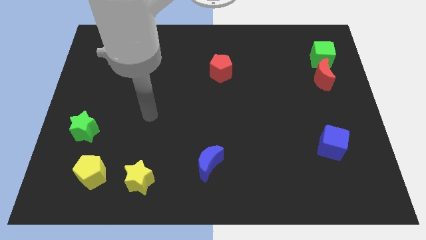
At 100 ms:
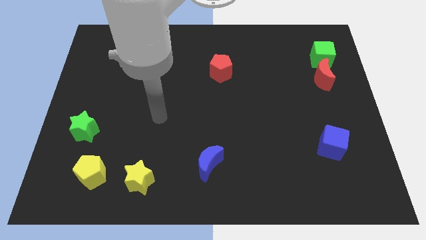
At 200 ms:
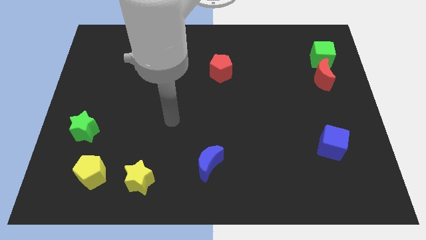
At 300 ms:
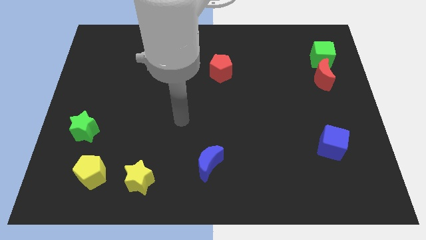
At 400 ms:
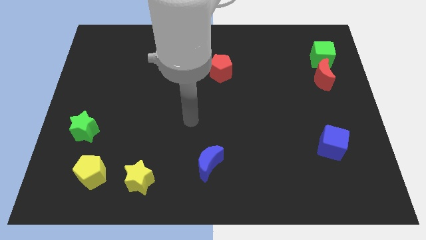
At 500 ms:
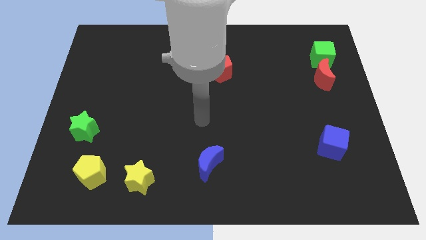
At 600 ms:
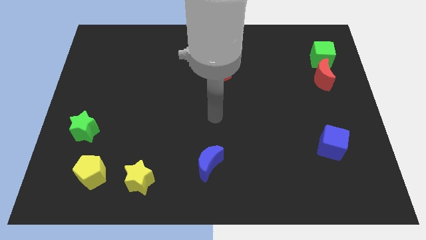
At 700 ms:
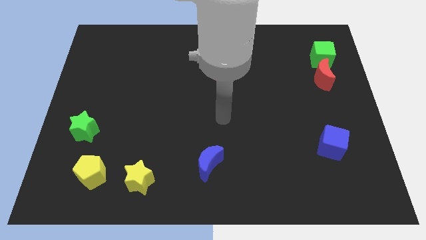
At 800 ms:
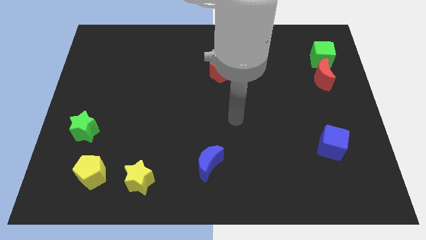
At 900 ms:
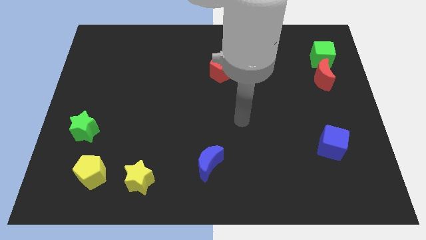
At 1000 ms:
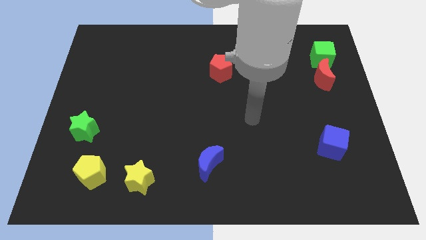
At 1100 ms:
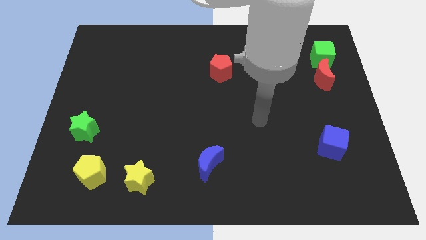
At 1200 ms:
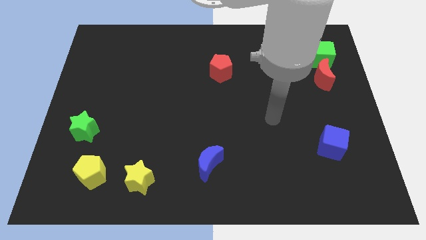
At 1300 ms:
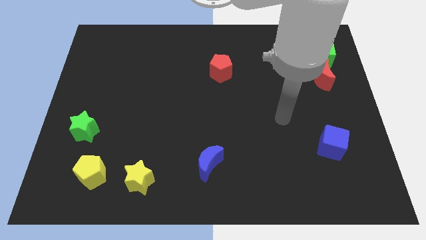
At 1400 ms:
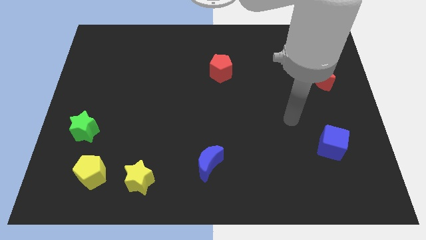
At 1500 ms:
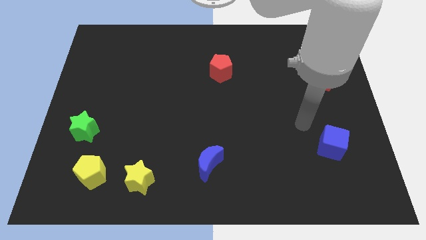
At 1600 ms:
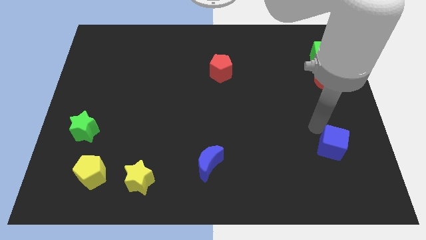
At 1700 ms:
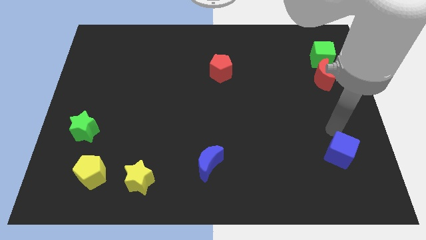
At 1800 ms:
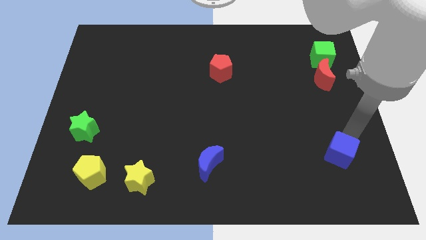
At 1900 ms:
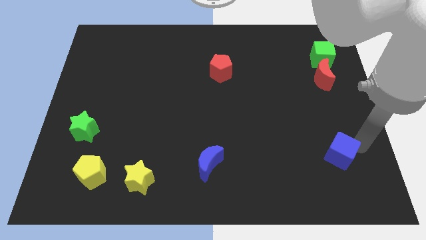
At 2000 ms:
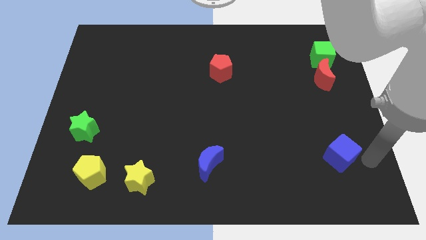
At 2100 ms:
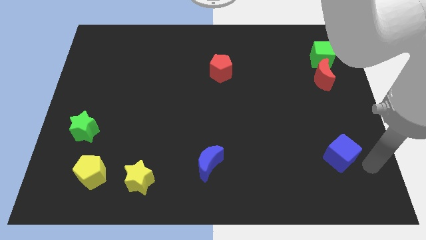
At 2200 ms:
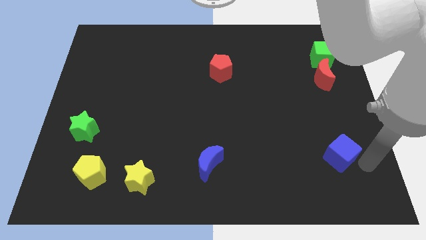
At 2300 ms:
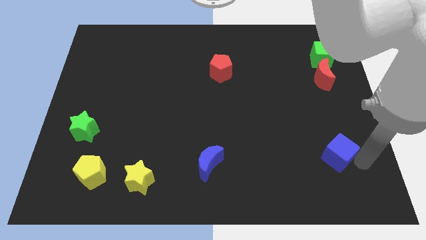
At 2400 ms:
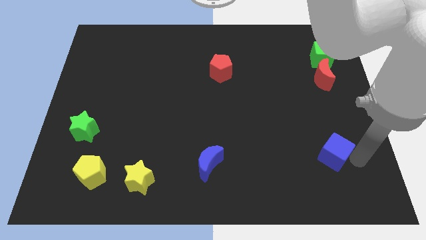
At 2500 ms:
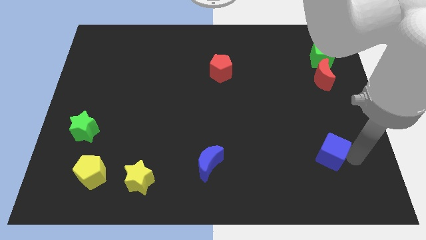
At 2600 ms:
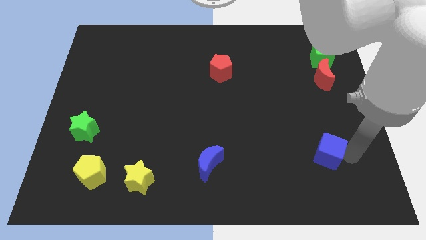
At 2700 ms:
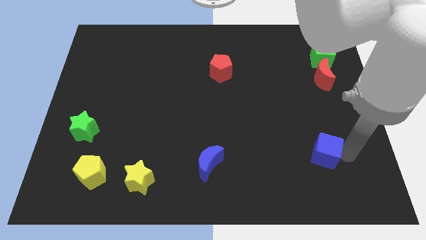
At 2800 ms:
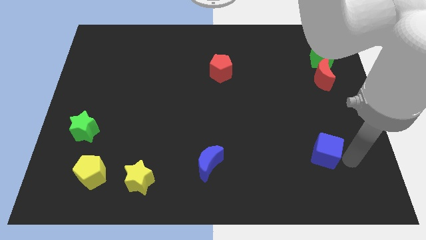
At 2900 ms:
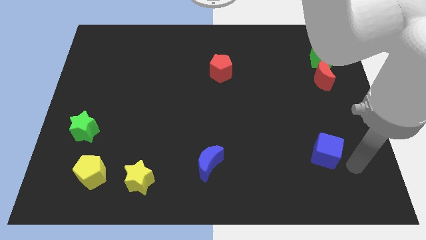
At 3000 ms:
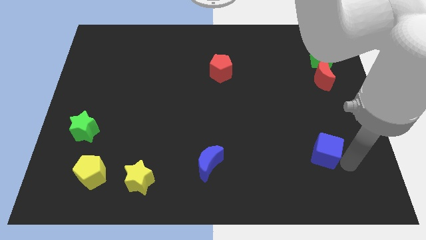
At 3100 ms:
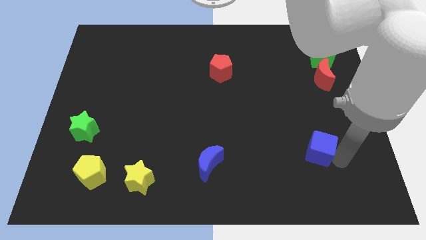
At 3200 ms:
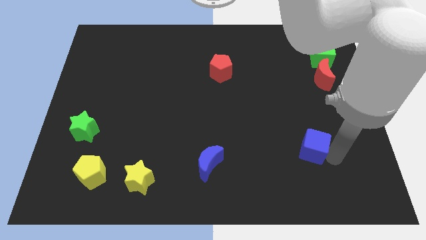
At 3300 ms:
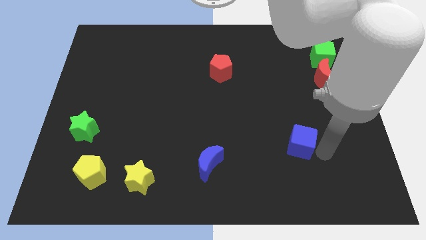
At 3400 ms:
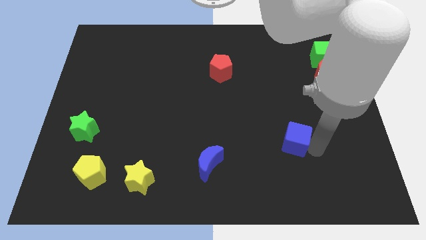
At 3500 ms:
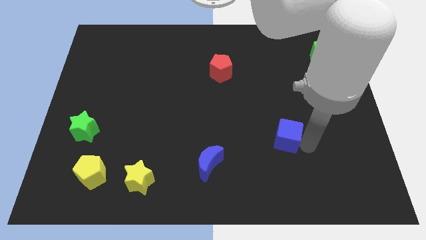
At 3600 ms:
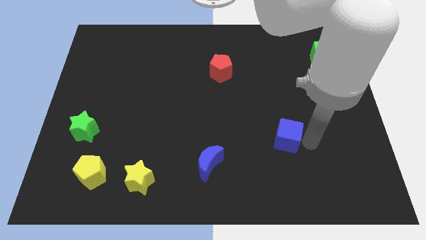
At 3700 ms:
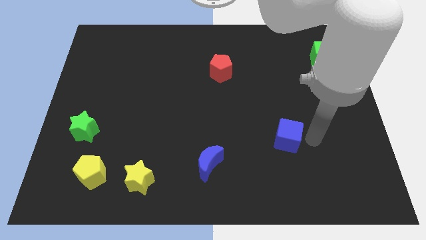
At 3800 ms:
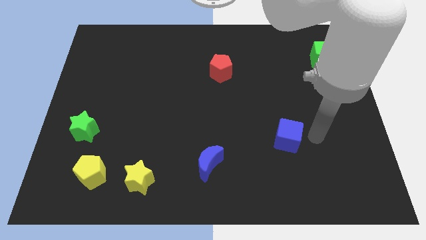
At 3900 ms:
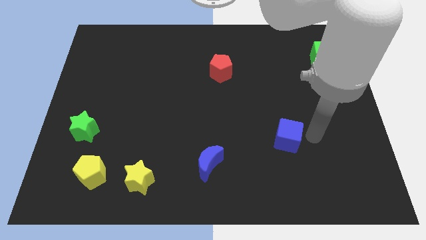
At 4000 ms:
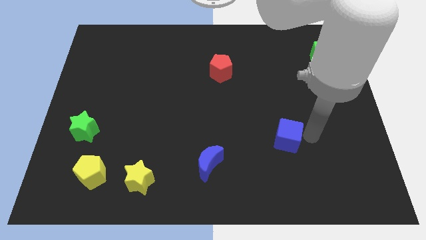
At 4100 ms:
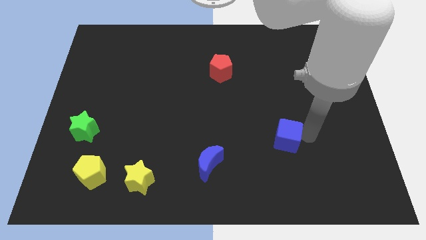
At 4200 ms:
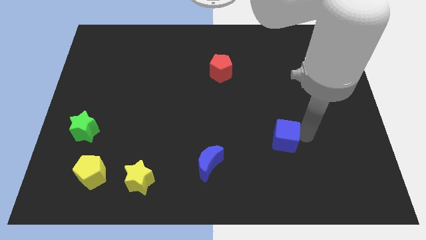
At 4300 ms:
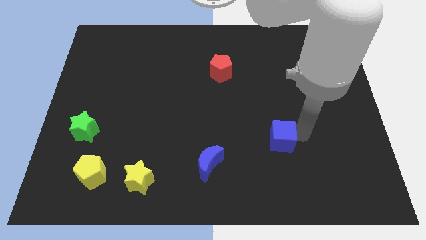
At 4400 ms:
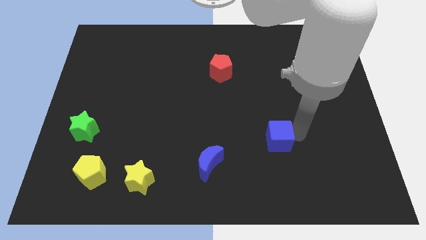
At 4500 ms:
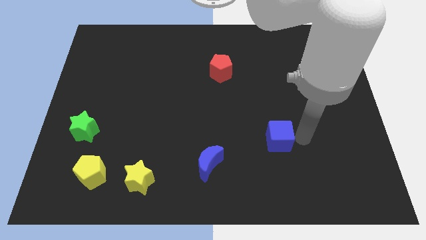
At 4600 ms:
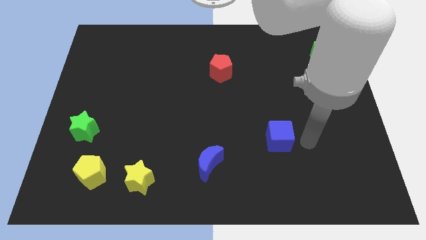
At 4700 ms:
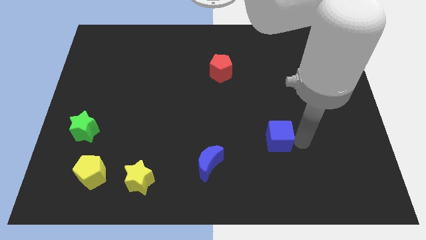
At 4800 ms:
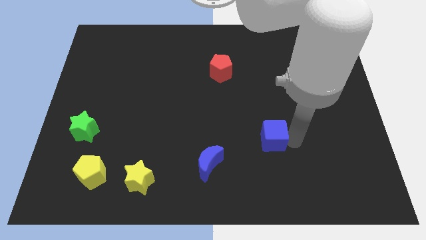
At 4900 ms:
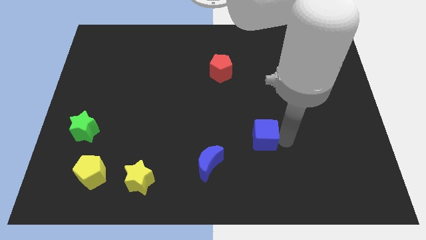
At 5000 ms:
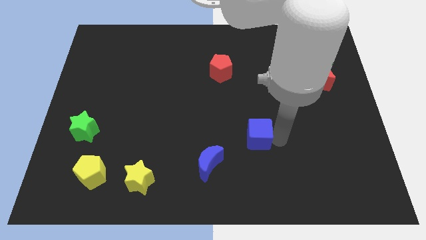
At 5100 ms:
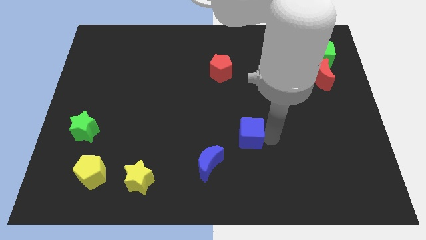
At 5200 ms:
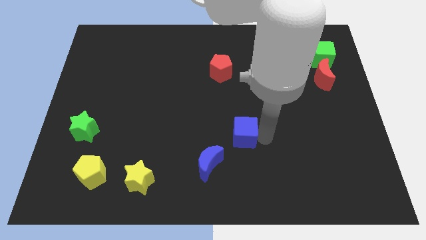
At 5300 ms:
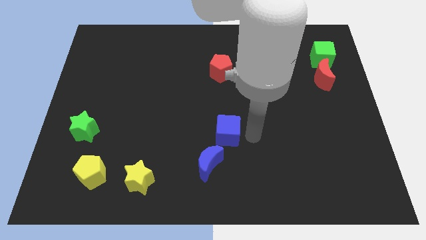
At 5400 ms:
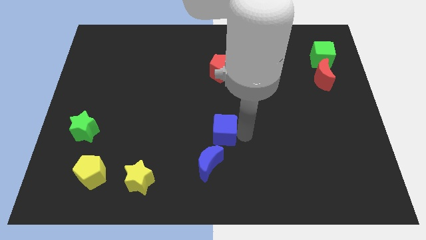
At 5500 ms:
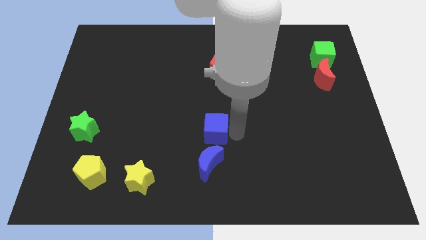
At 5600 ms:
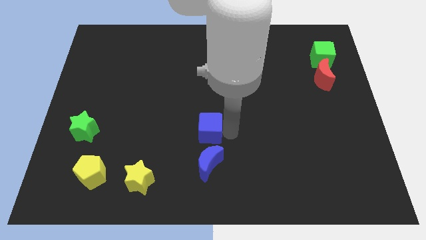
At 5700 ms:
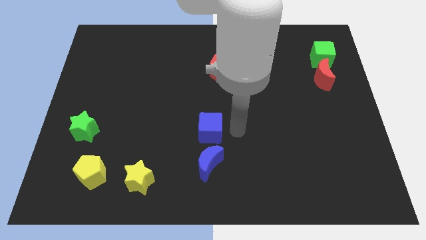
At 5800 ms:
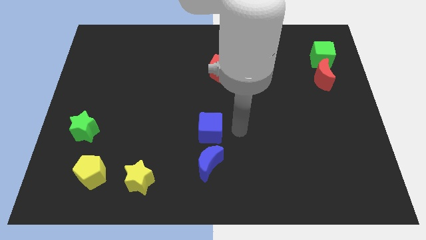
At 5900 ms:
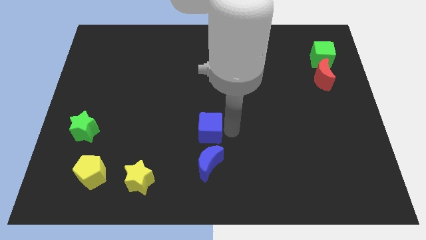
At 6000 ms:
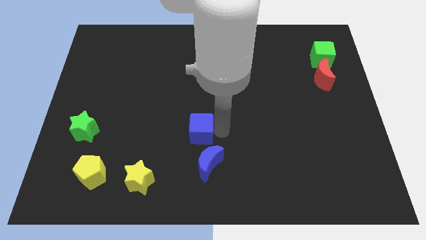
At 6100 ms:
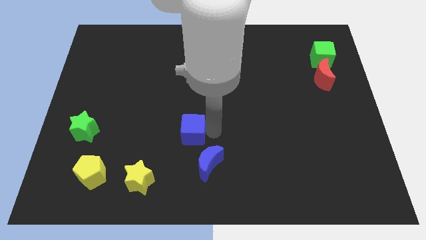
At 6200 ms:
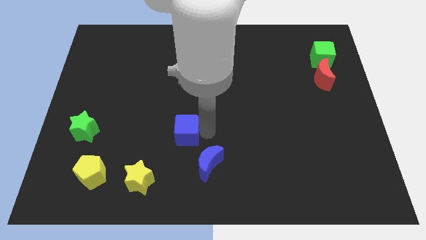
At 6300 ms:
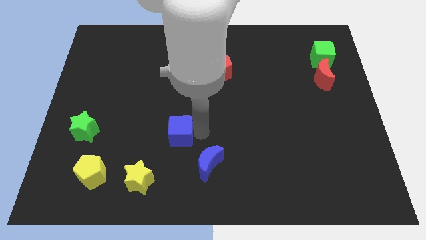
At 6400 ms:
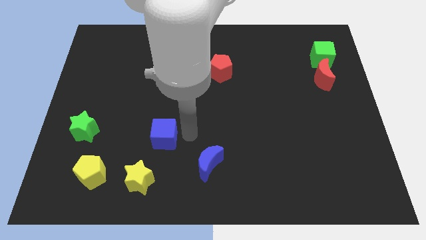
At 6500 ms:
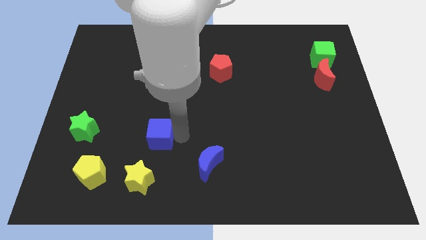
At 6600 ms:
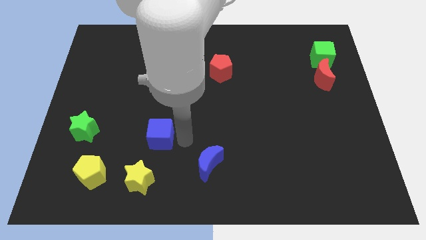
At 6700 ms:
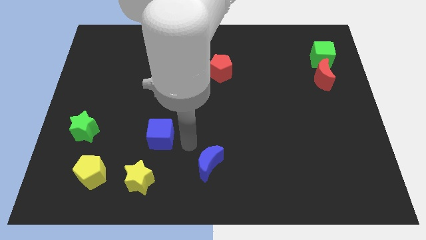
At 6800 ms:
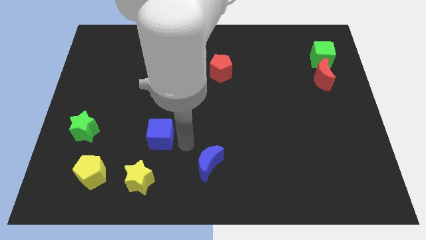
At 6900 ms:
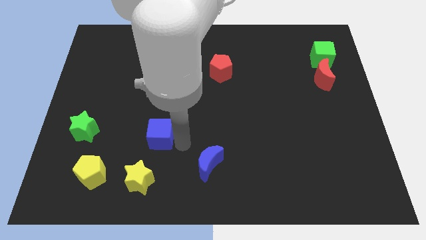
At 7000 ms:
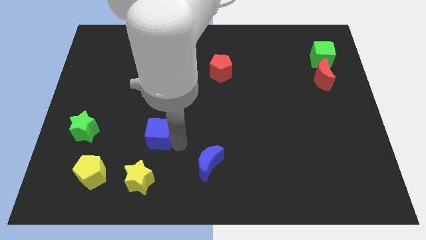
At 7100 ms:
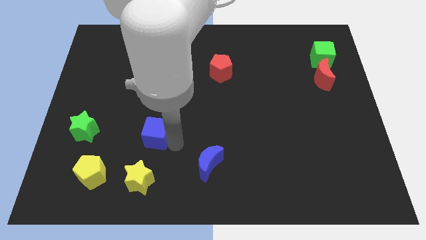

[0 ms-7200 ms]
push the blue cube to the right side of the green star
